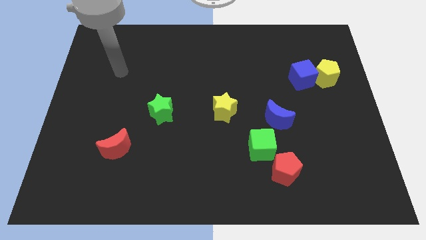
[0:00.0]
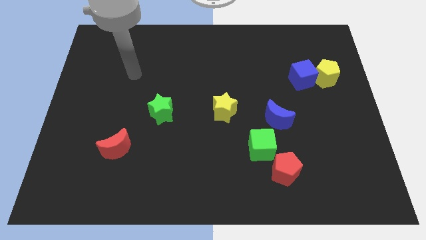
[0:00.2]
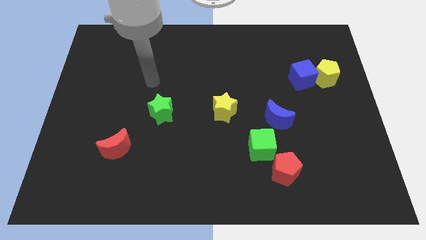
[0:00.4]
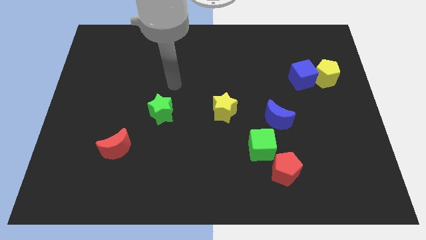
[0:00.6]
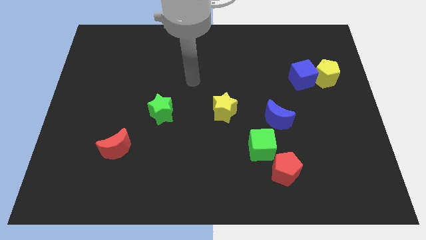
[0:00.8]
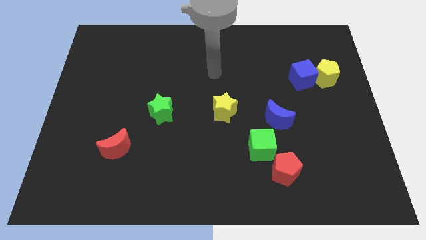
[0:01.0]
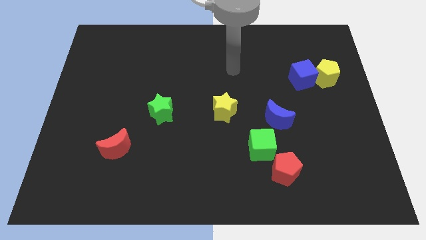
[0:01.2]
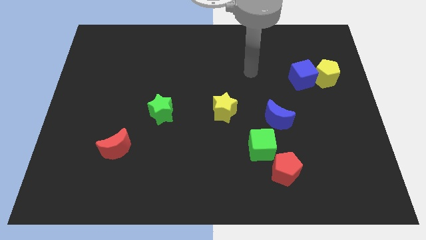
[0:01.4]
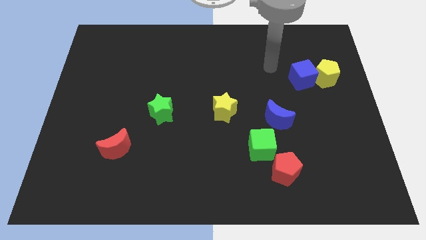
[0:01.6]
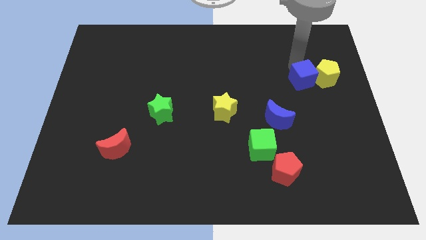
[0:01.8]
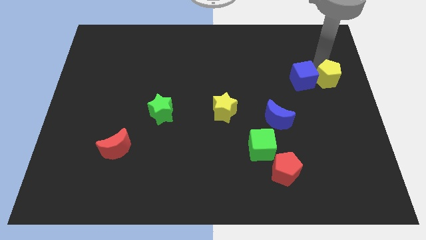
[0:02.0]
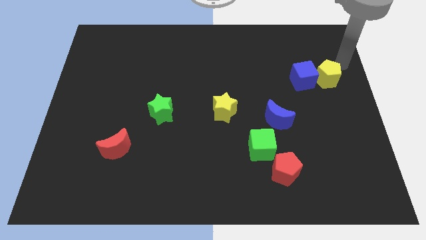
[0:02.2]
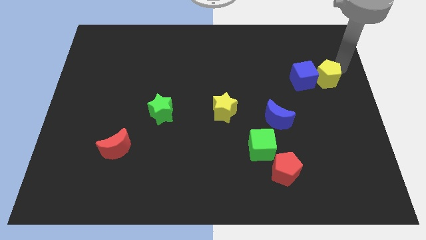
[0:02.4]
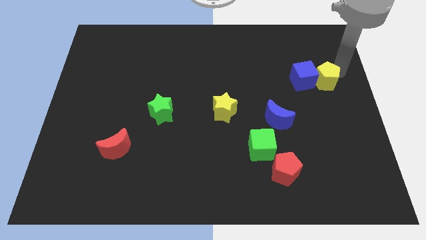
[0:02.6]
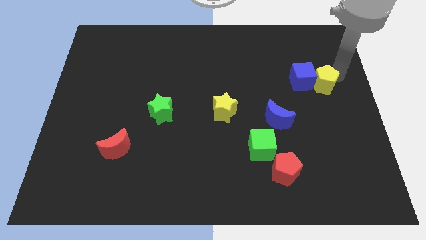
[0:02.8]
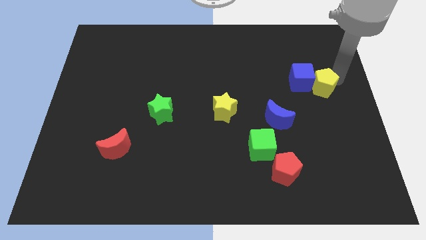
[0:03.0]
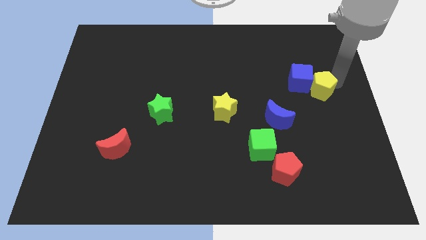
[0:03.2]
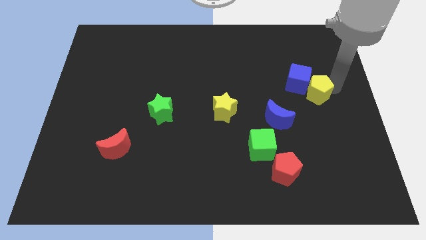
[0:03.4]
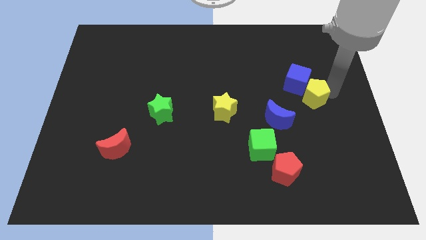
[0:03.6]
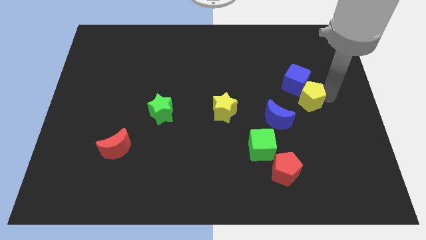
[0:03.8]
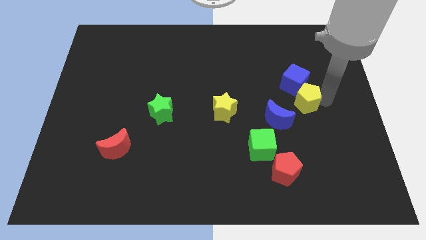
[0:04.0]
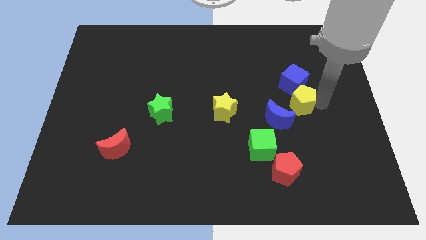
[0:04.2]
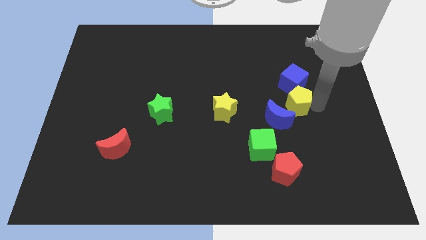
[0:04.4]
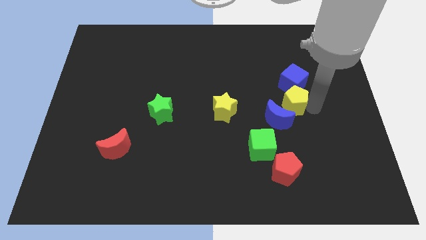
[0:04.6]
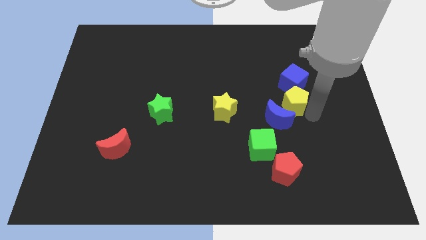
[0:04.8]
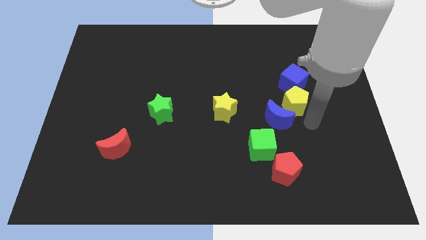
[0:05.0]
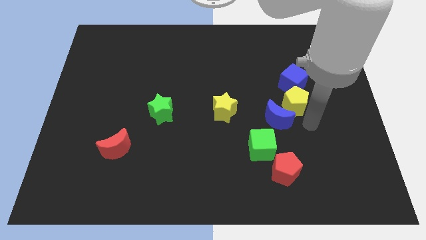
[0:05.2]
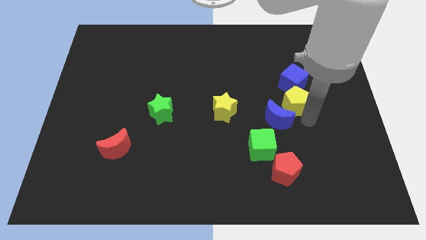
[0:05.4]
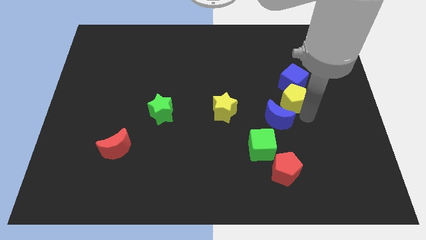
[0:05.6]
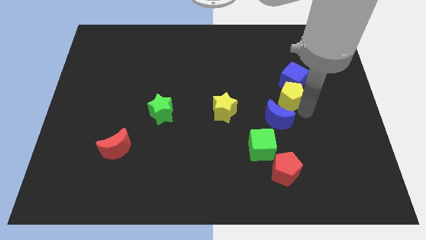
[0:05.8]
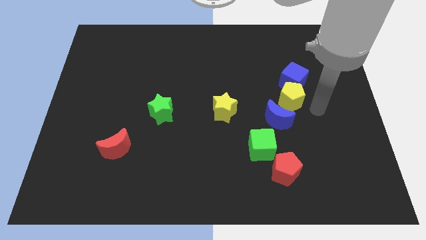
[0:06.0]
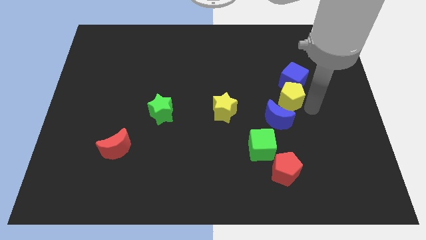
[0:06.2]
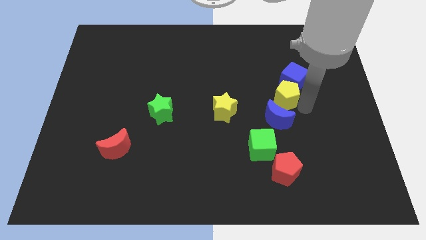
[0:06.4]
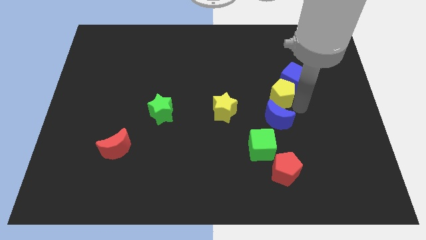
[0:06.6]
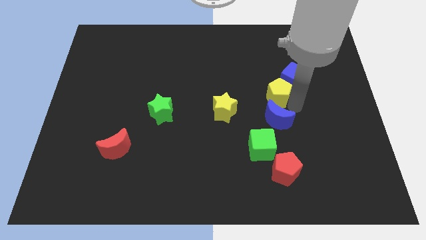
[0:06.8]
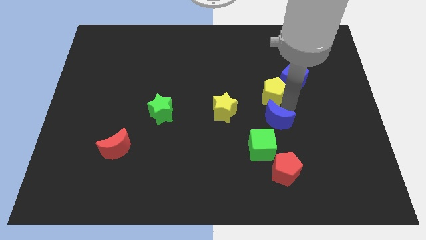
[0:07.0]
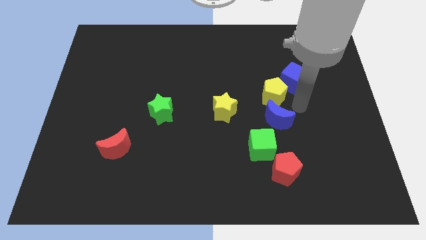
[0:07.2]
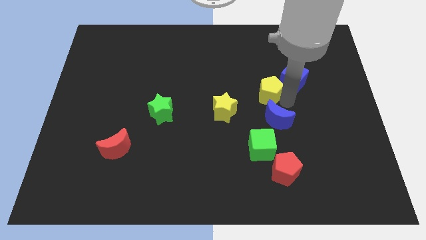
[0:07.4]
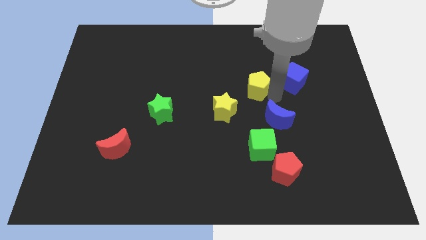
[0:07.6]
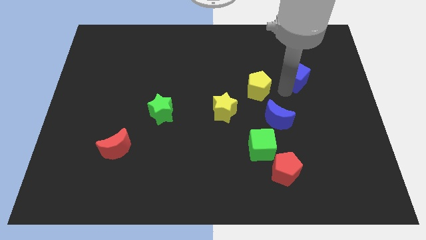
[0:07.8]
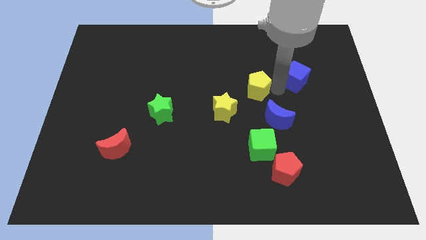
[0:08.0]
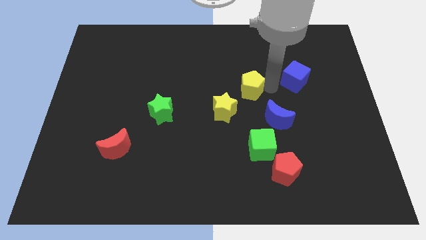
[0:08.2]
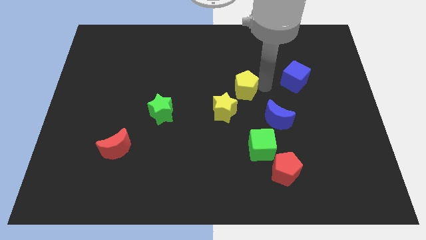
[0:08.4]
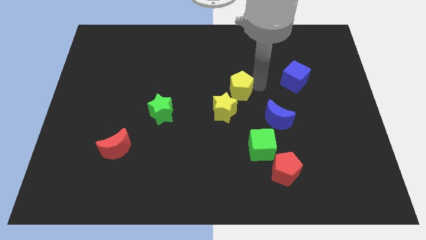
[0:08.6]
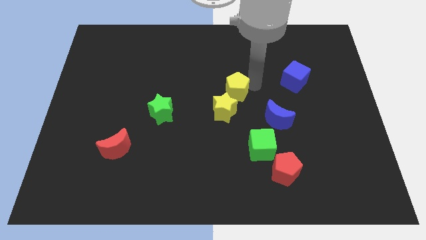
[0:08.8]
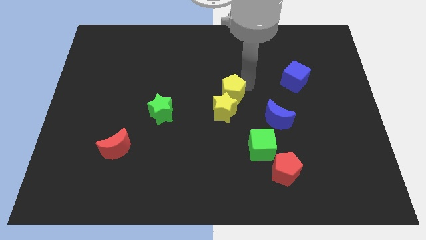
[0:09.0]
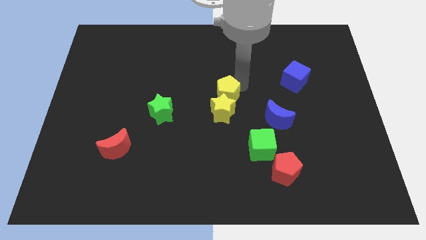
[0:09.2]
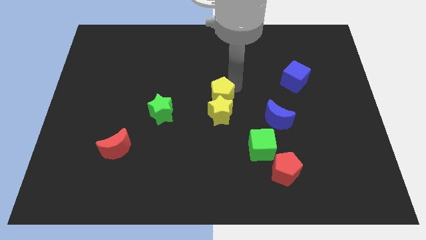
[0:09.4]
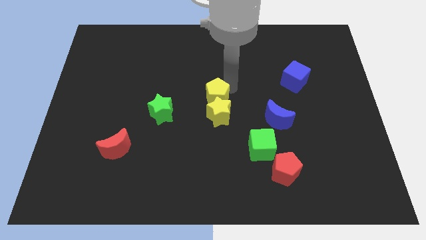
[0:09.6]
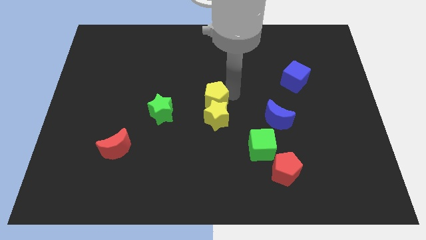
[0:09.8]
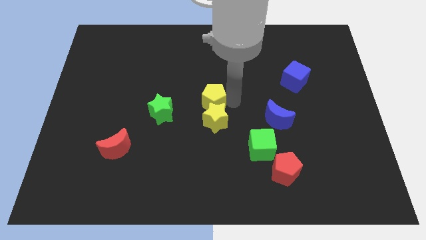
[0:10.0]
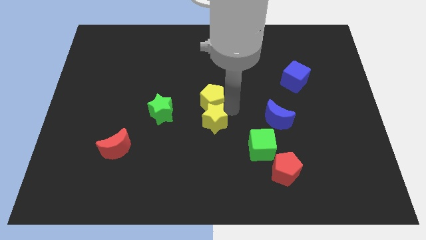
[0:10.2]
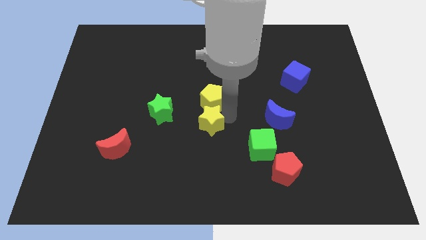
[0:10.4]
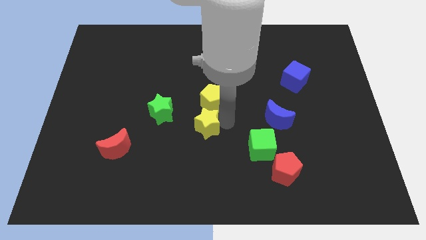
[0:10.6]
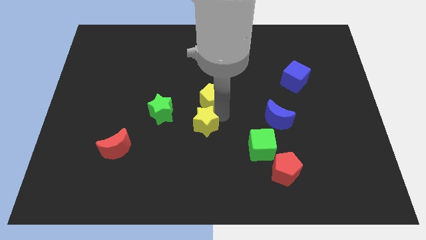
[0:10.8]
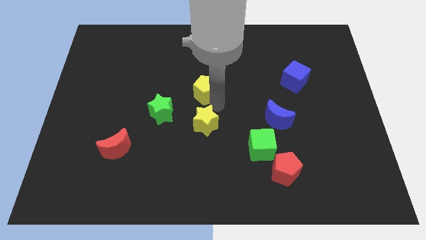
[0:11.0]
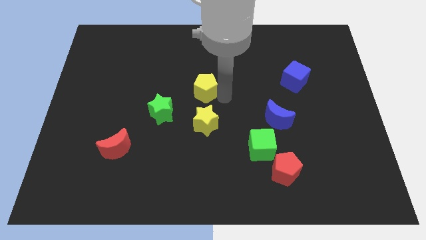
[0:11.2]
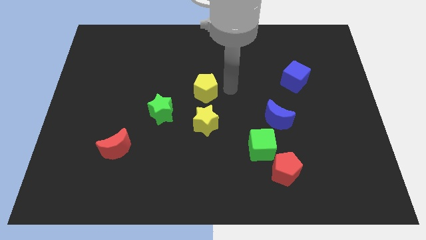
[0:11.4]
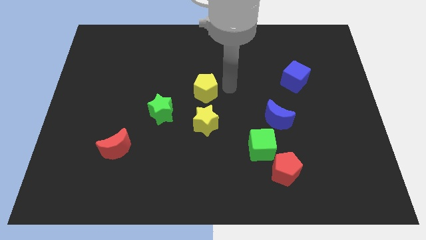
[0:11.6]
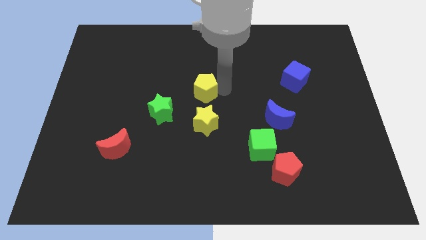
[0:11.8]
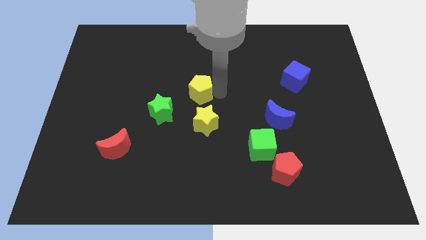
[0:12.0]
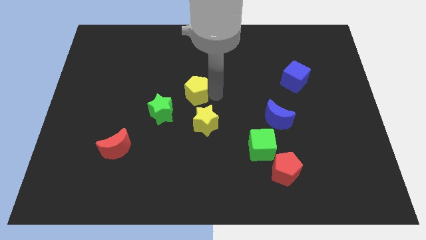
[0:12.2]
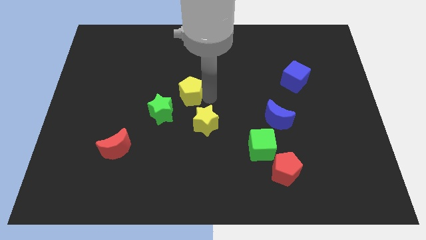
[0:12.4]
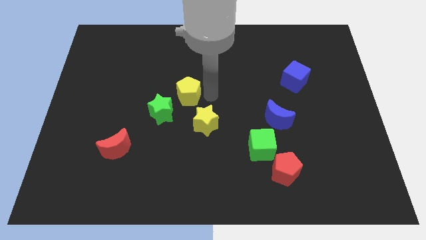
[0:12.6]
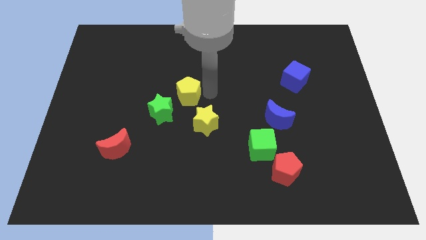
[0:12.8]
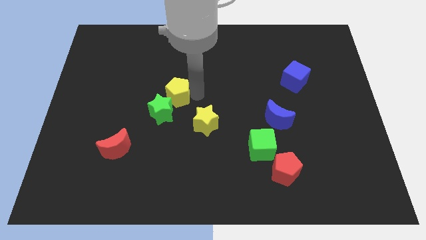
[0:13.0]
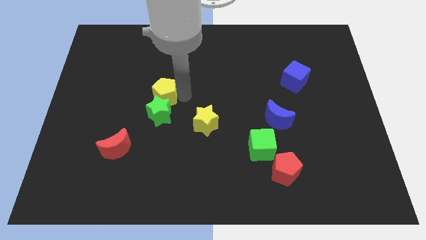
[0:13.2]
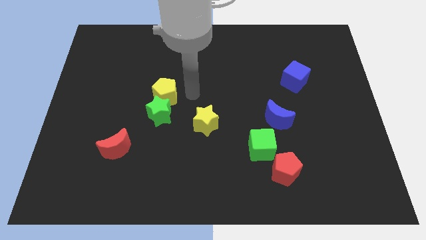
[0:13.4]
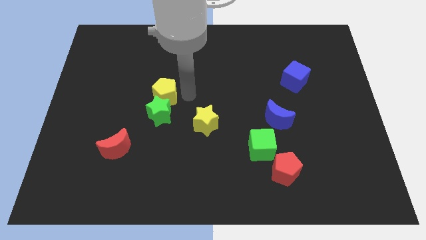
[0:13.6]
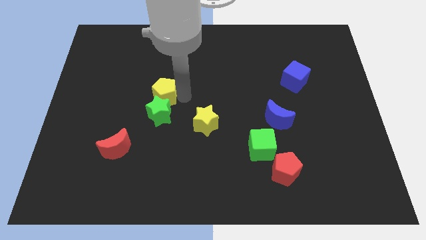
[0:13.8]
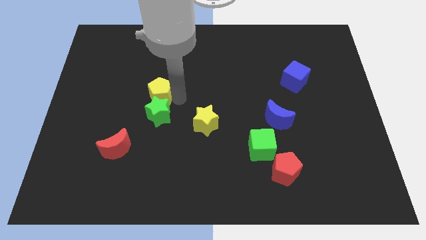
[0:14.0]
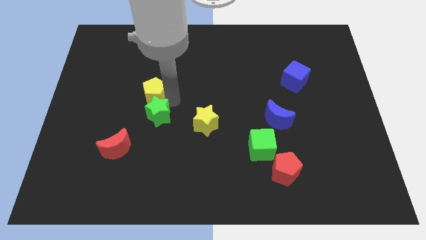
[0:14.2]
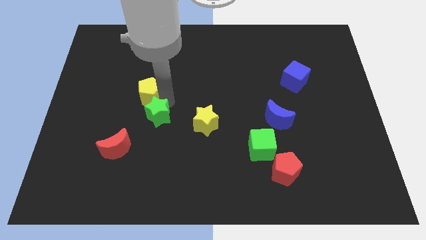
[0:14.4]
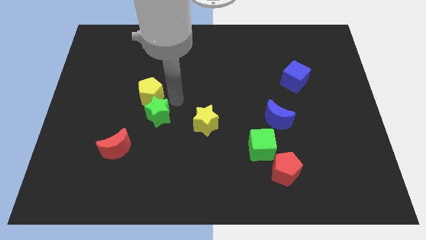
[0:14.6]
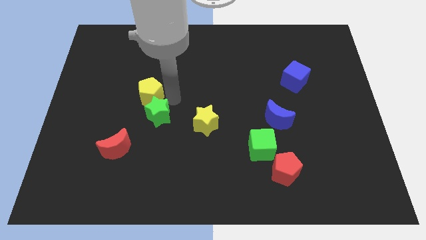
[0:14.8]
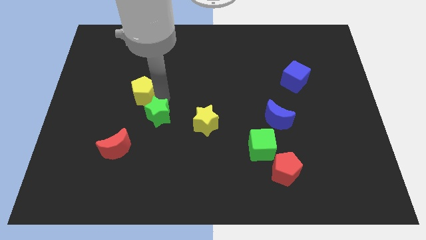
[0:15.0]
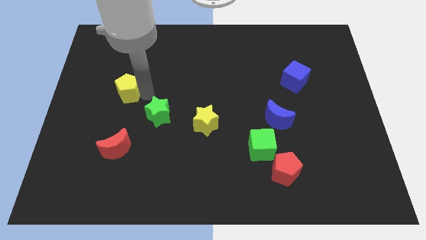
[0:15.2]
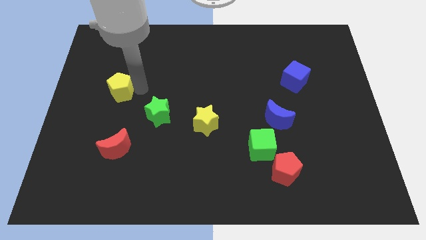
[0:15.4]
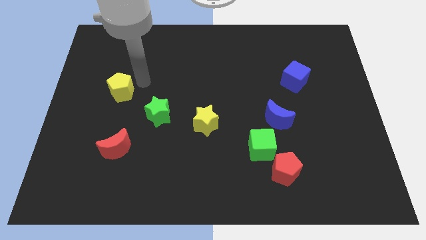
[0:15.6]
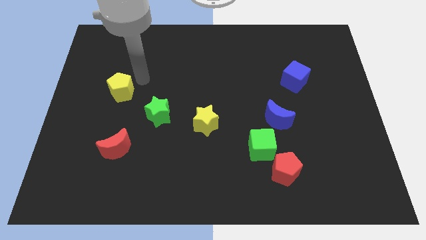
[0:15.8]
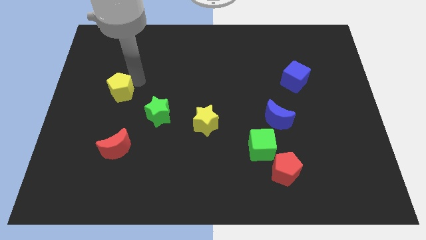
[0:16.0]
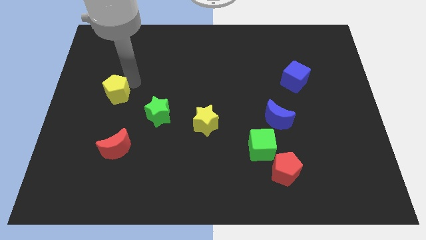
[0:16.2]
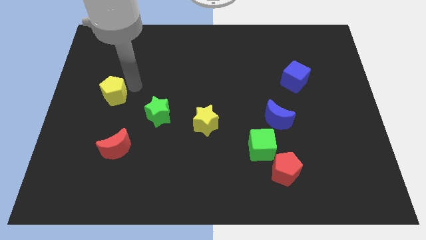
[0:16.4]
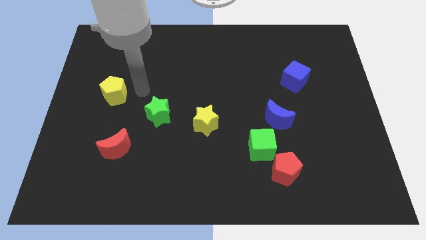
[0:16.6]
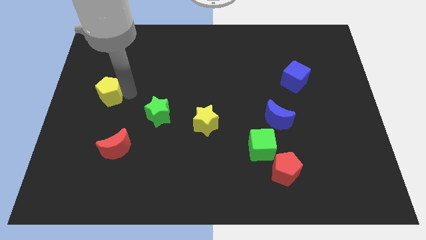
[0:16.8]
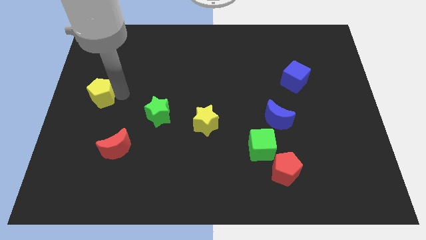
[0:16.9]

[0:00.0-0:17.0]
move the yellow pentagon to the center left
